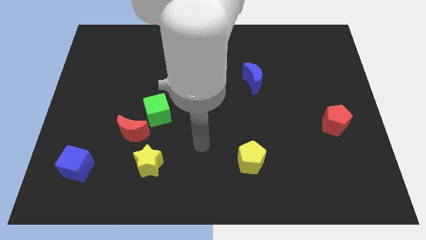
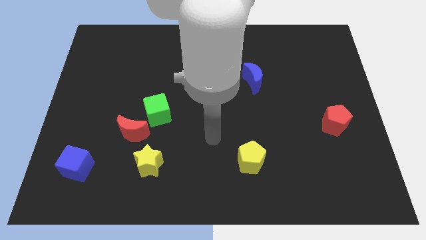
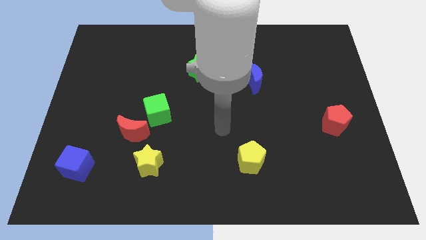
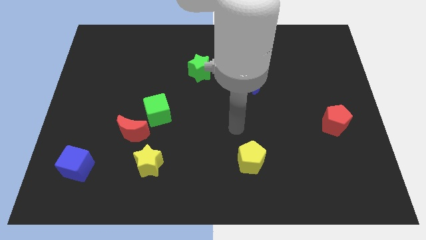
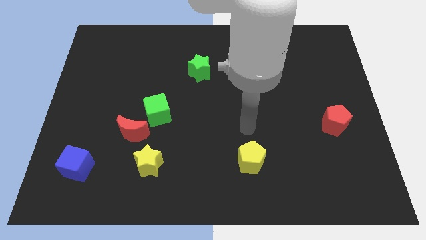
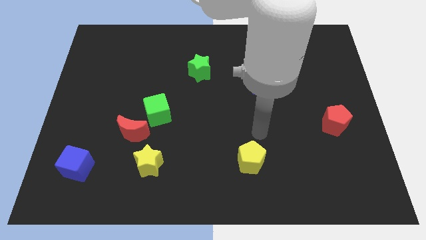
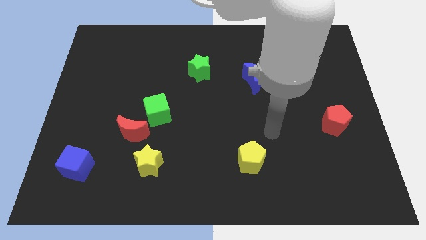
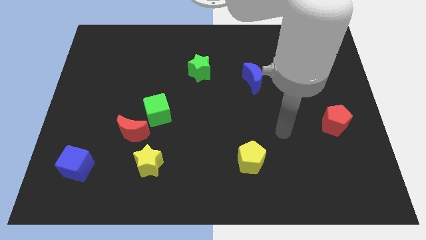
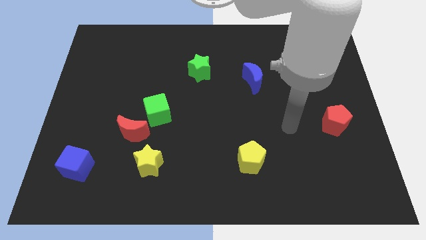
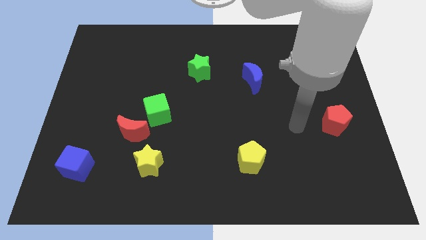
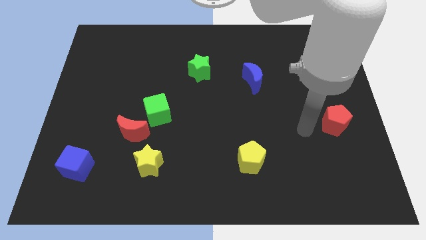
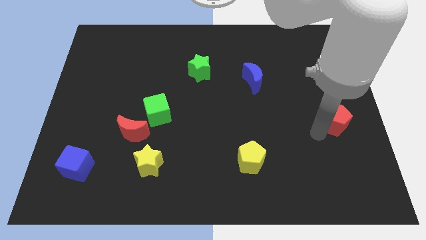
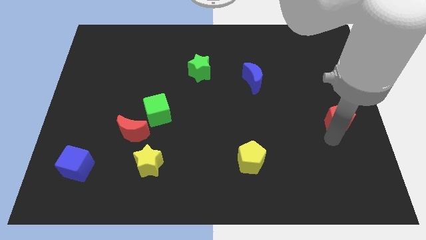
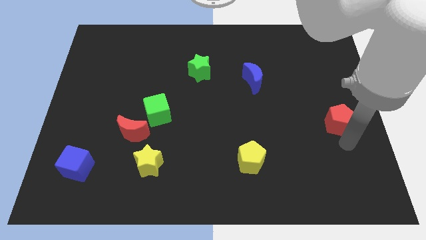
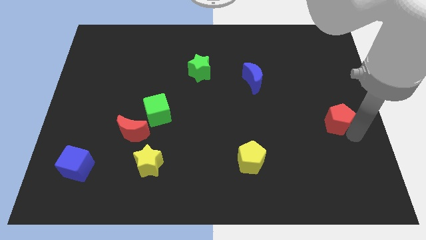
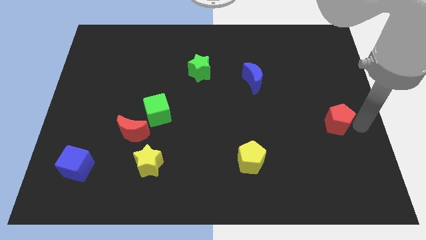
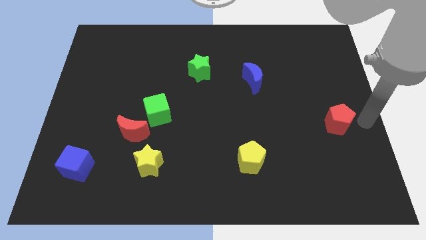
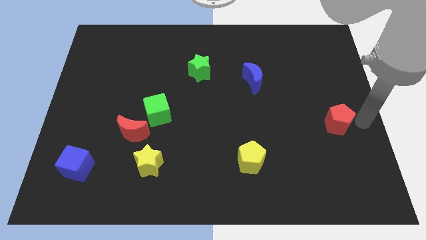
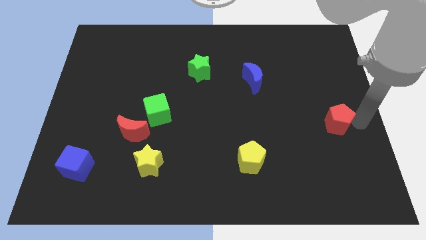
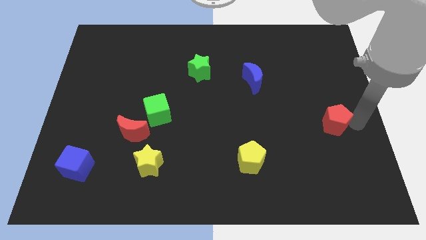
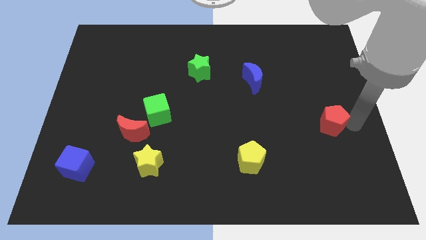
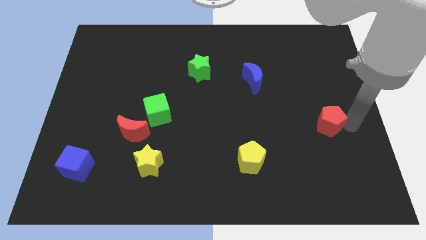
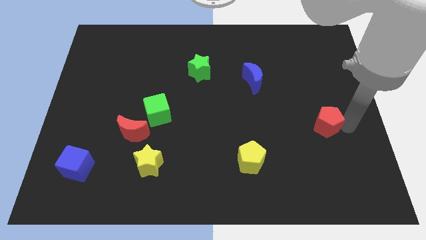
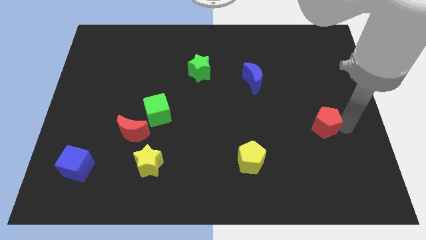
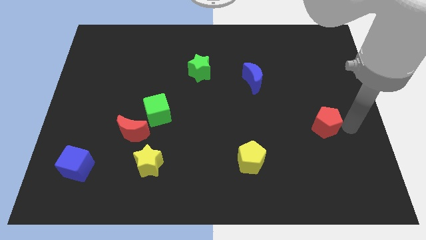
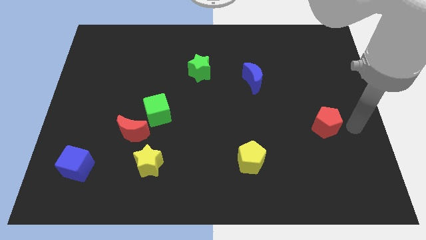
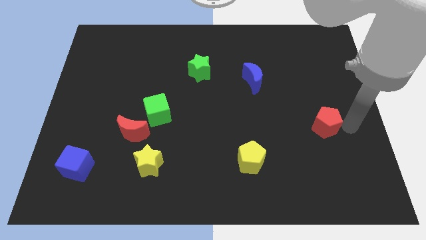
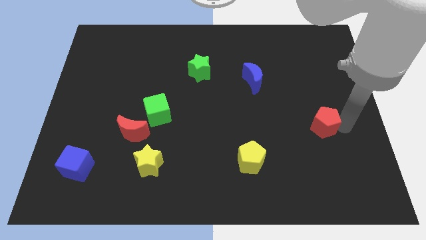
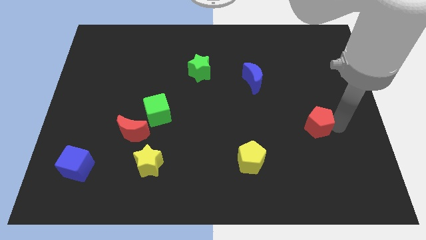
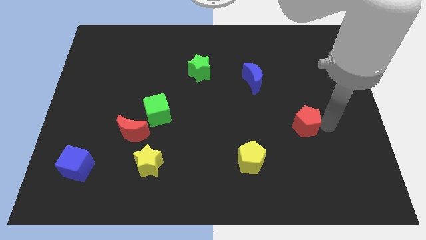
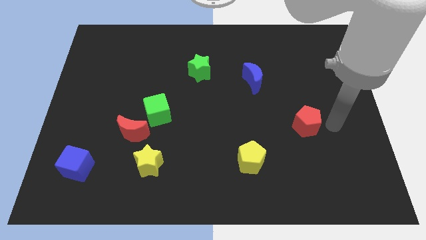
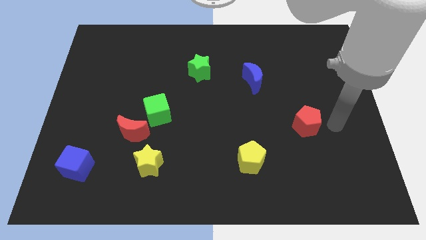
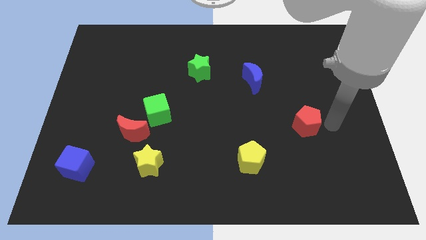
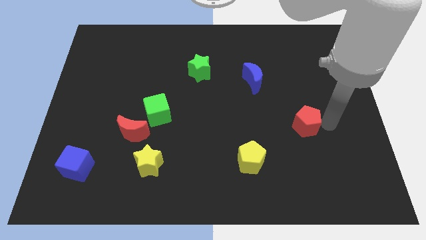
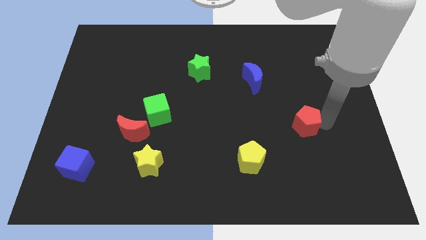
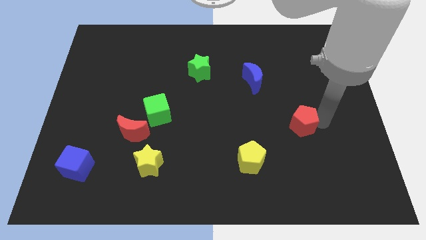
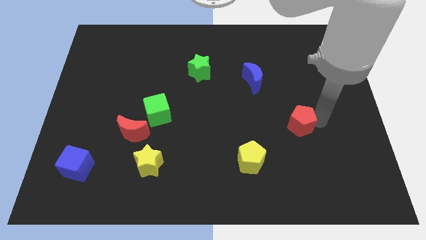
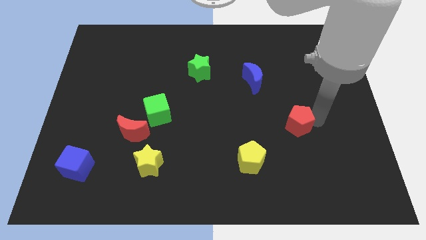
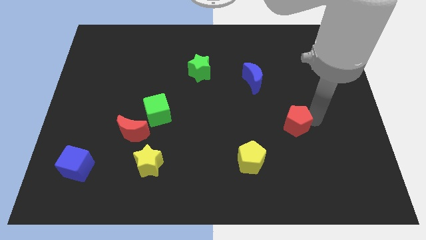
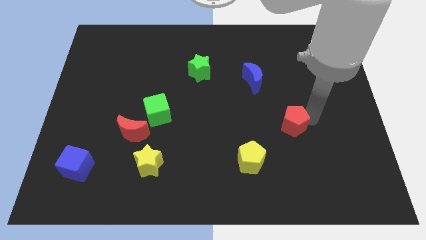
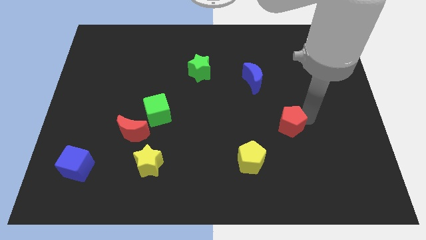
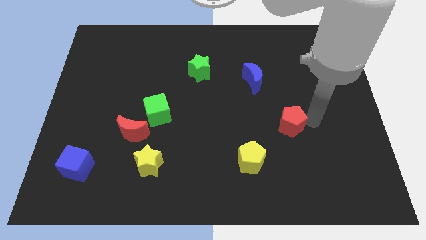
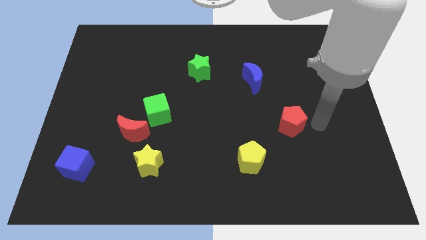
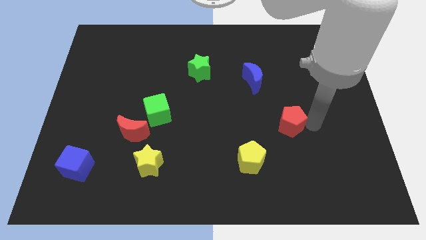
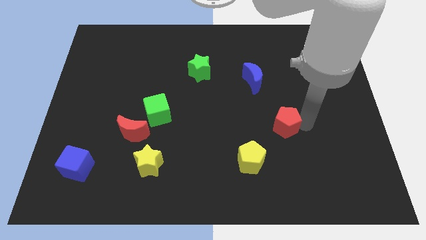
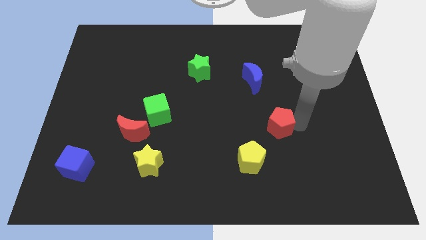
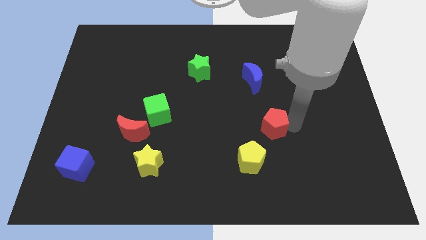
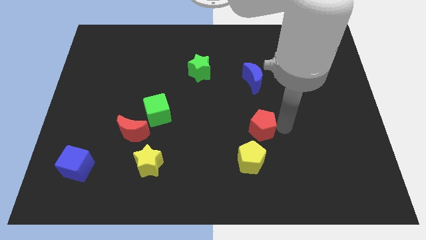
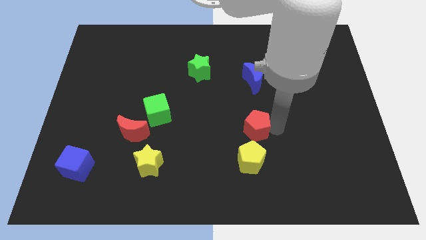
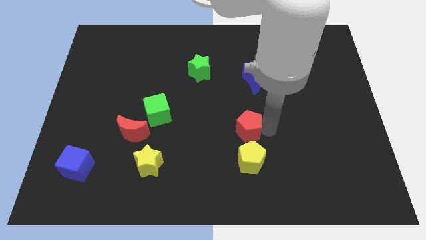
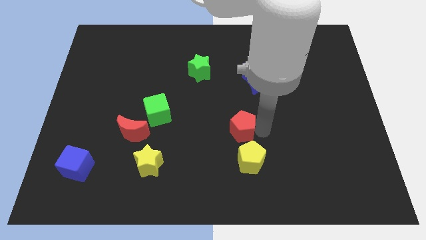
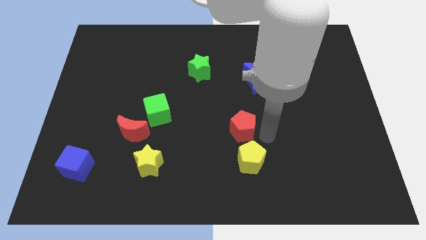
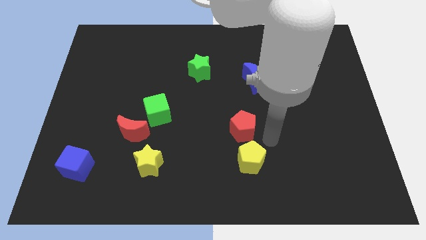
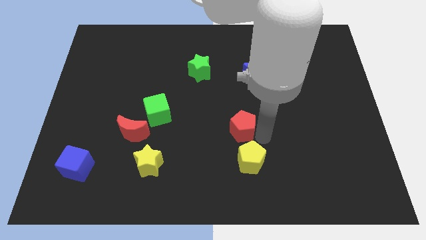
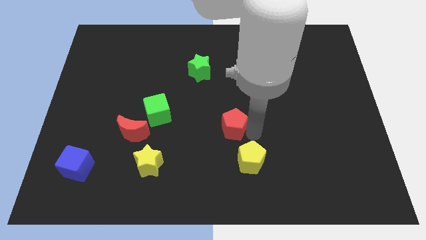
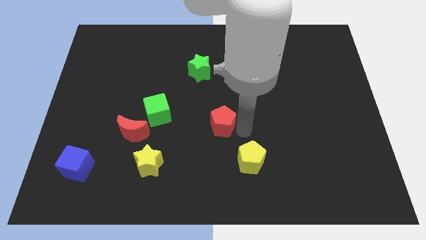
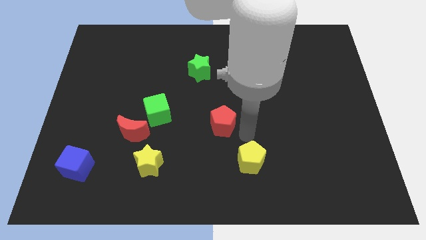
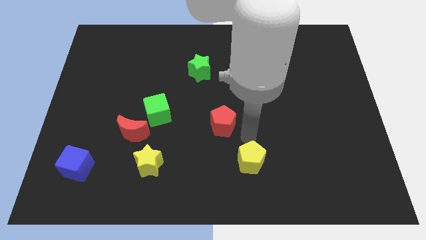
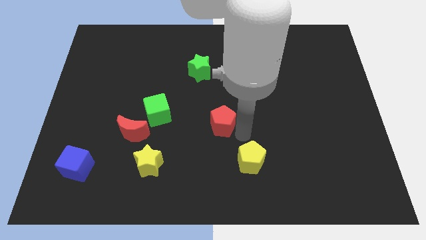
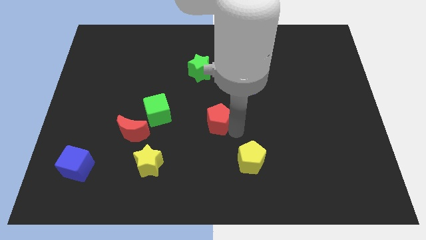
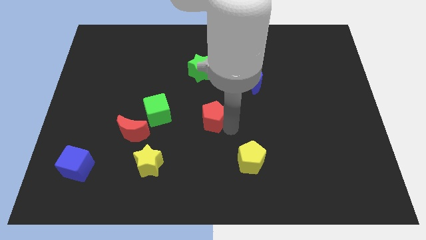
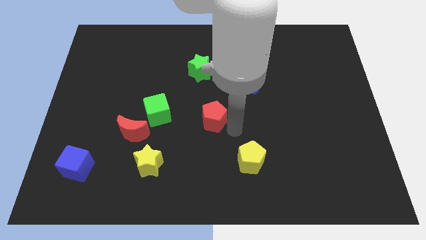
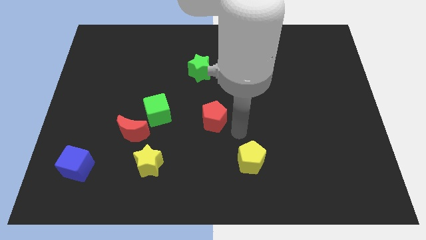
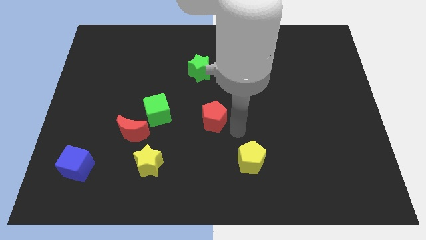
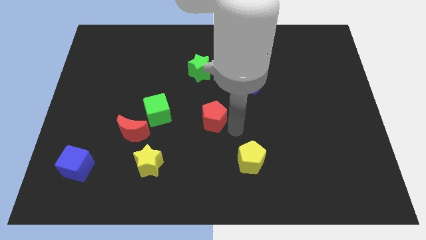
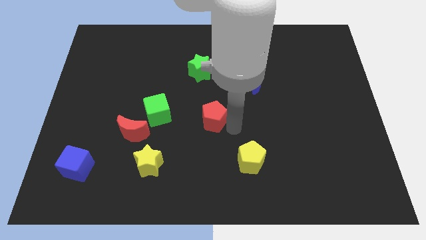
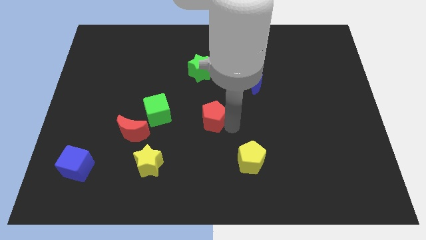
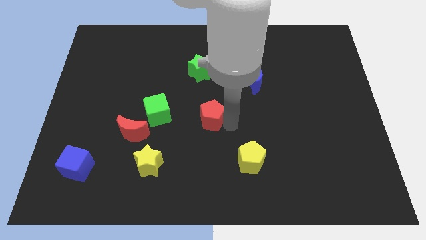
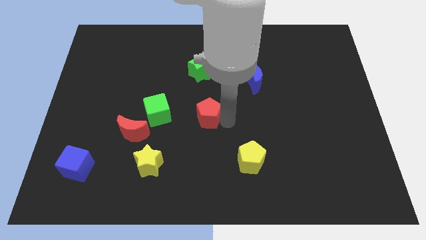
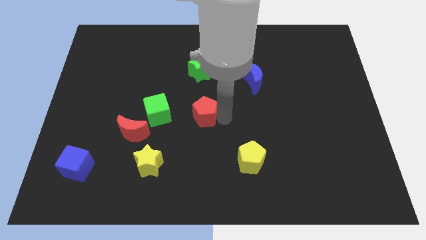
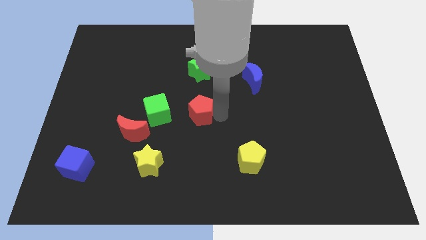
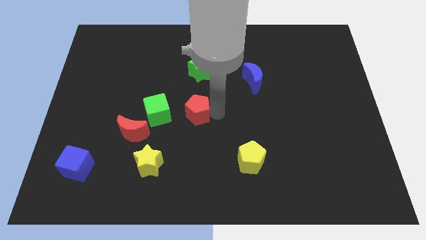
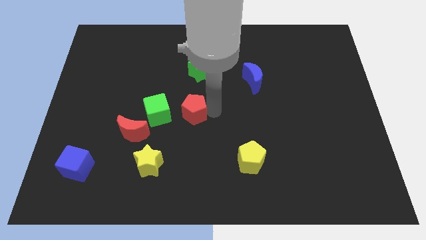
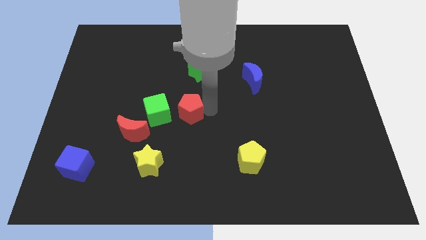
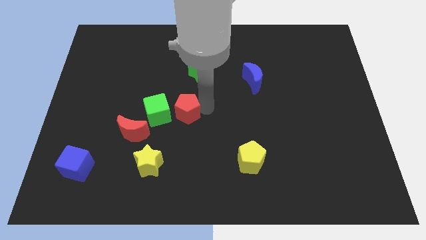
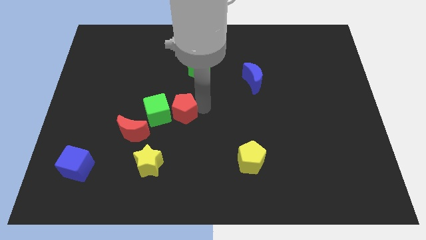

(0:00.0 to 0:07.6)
push the red pentagon next to the green cube
